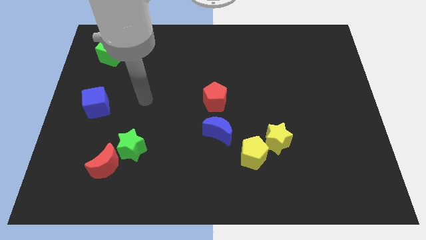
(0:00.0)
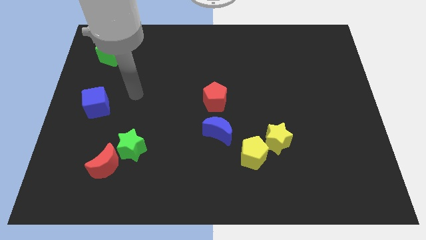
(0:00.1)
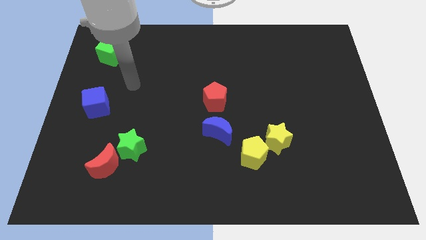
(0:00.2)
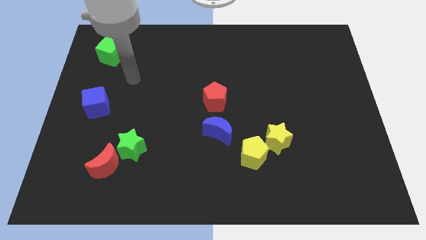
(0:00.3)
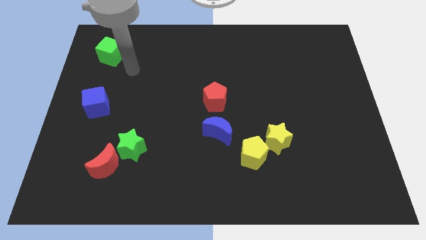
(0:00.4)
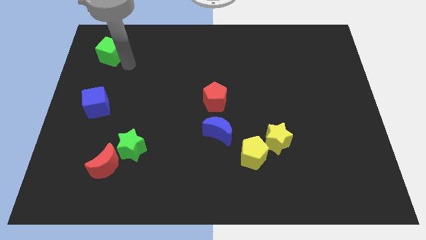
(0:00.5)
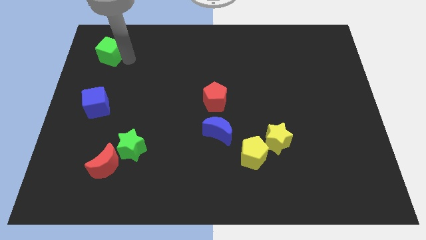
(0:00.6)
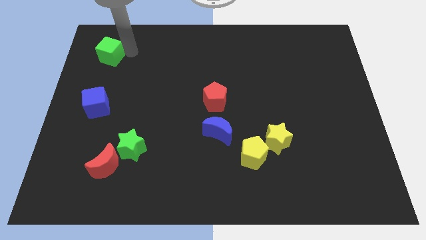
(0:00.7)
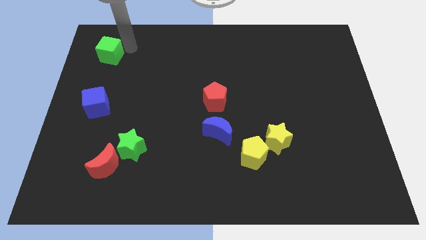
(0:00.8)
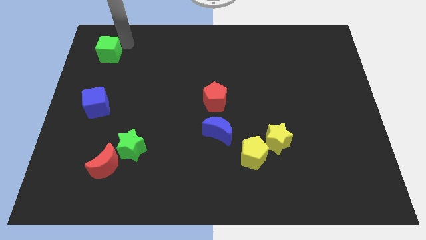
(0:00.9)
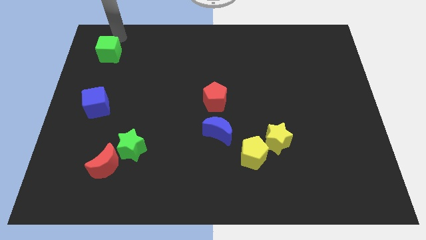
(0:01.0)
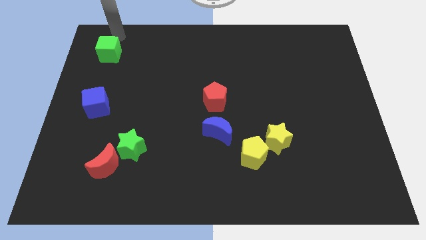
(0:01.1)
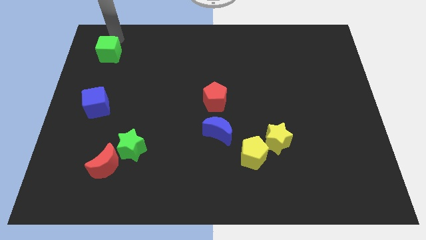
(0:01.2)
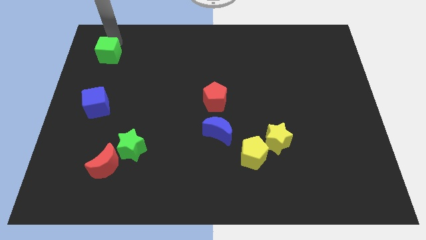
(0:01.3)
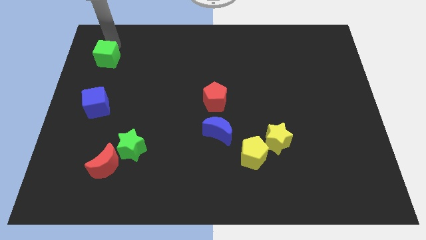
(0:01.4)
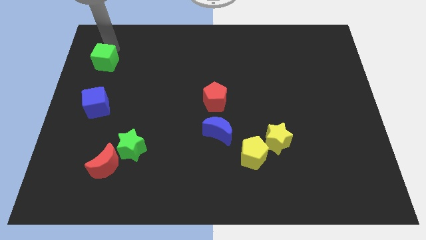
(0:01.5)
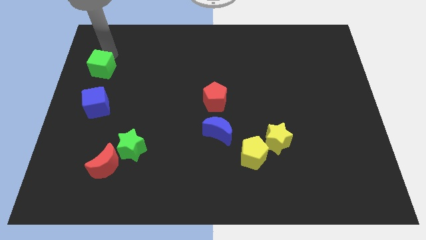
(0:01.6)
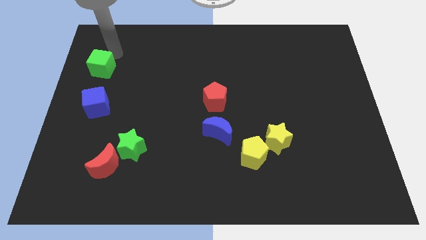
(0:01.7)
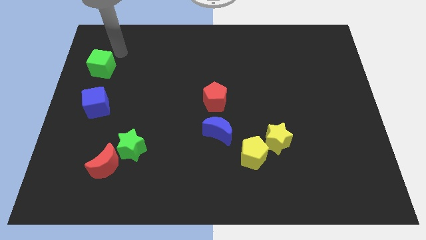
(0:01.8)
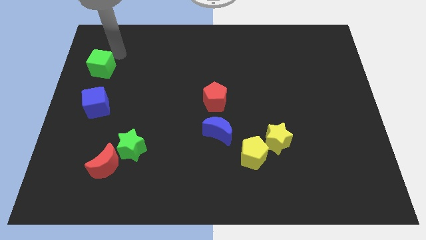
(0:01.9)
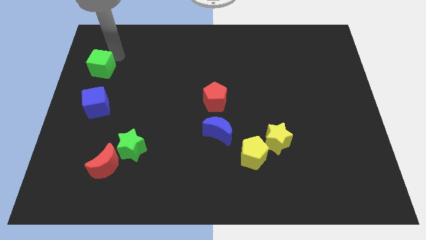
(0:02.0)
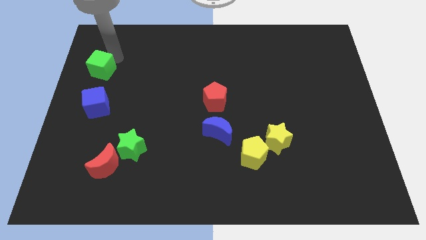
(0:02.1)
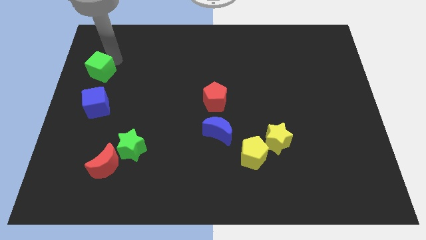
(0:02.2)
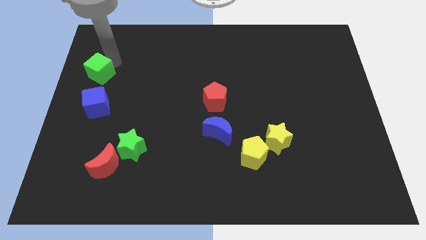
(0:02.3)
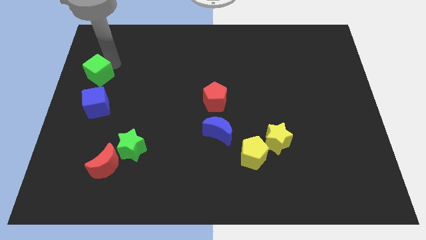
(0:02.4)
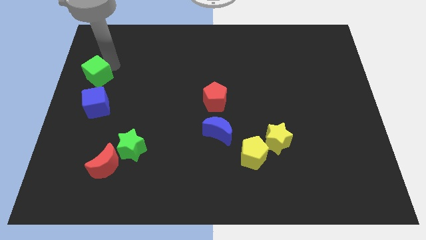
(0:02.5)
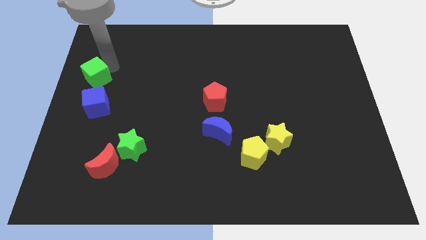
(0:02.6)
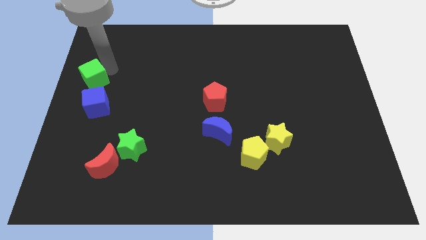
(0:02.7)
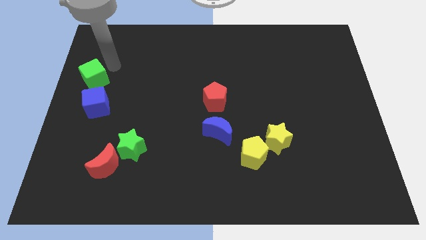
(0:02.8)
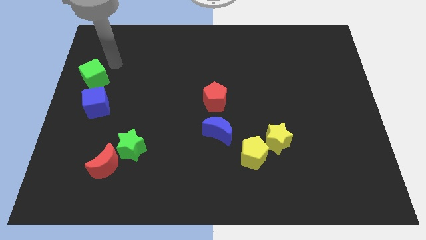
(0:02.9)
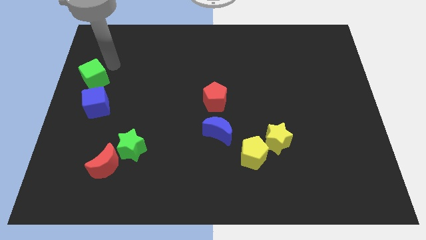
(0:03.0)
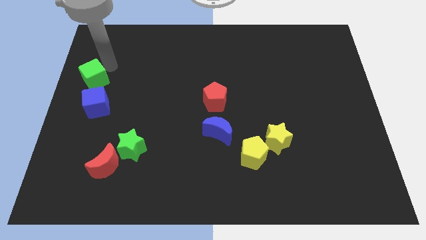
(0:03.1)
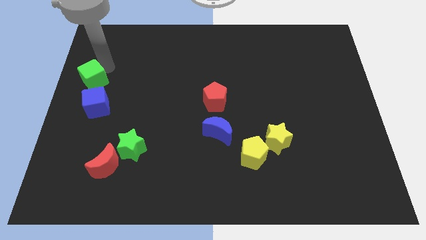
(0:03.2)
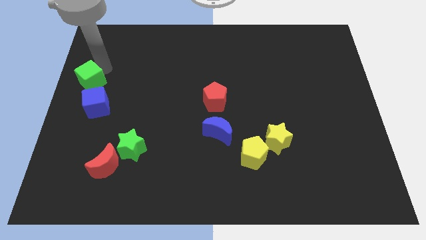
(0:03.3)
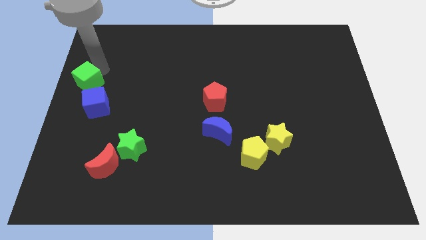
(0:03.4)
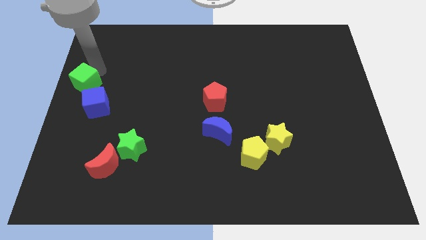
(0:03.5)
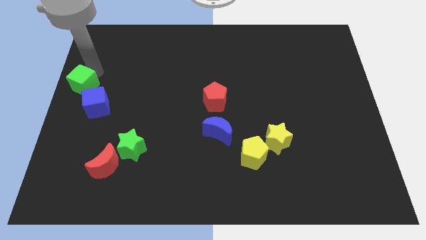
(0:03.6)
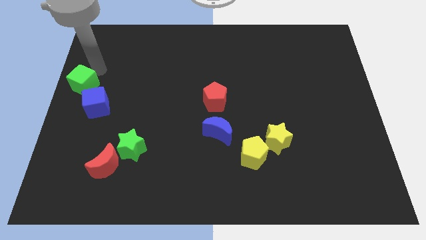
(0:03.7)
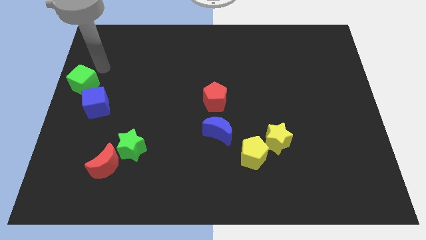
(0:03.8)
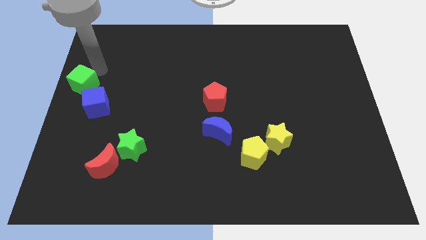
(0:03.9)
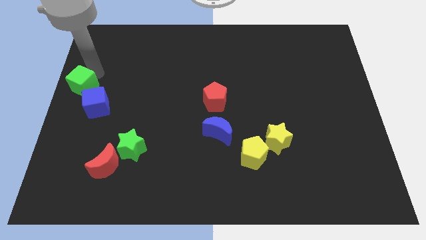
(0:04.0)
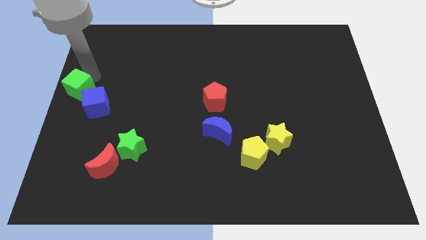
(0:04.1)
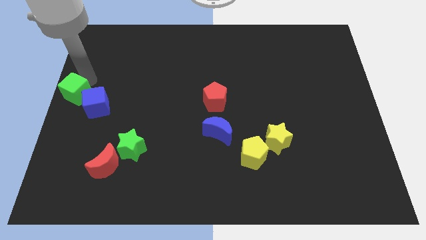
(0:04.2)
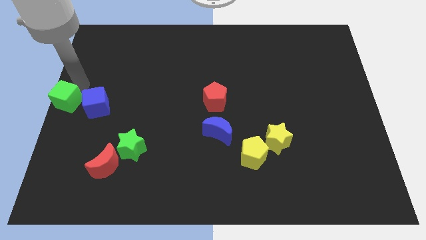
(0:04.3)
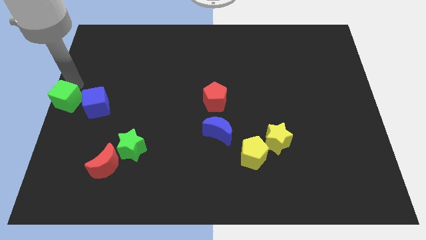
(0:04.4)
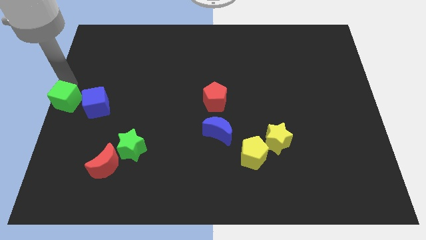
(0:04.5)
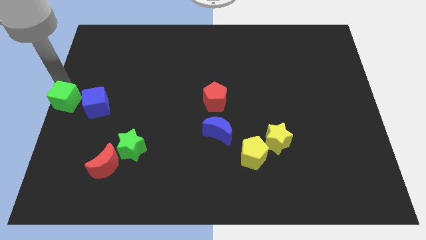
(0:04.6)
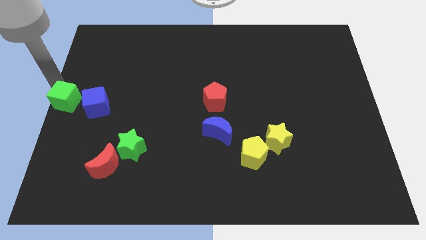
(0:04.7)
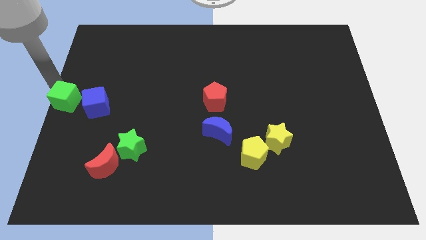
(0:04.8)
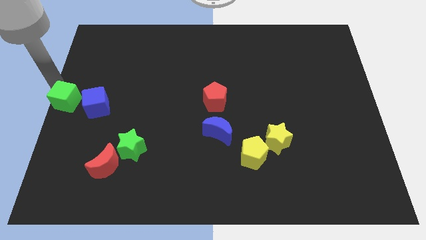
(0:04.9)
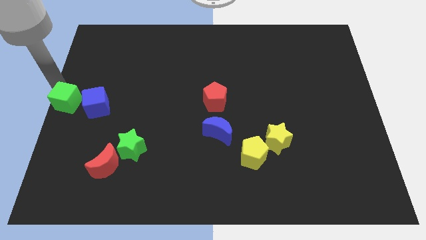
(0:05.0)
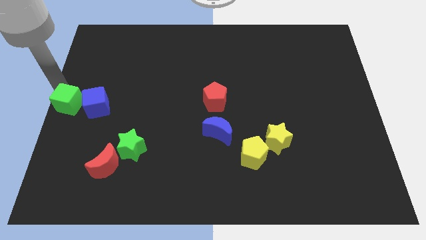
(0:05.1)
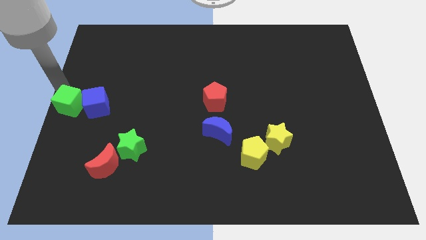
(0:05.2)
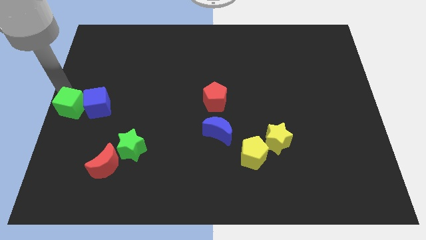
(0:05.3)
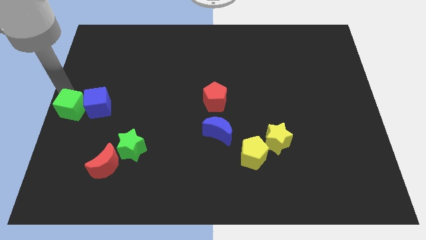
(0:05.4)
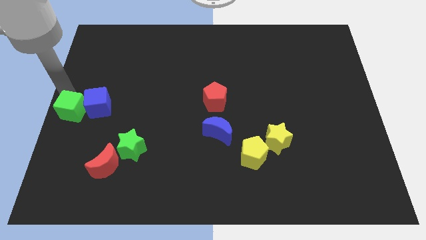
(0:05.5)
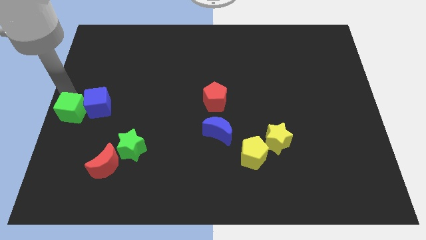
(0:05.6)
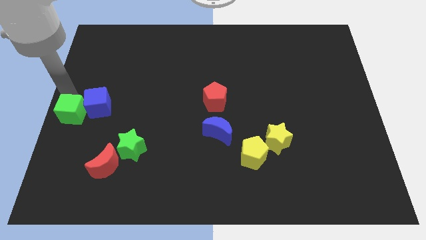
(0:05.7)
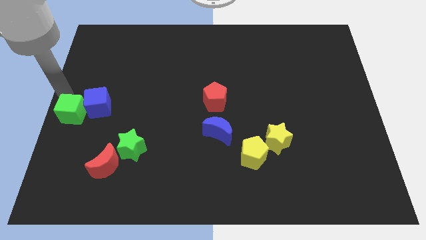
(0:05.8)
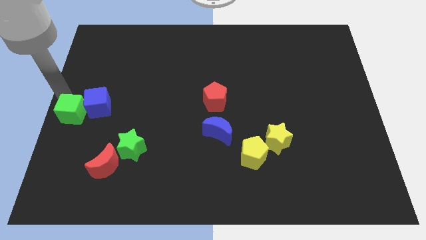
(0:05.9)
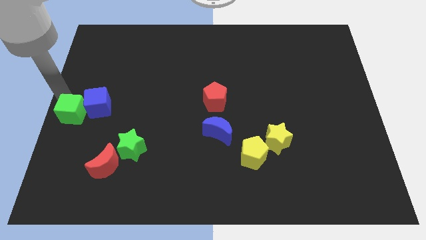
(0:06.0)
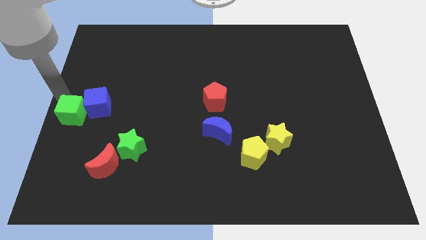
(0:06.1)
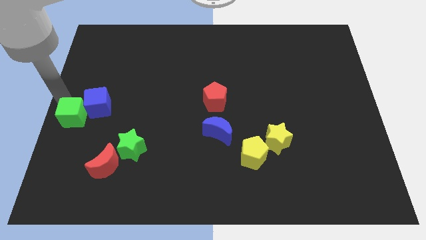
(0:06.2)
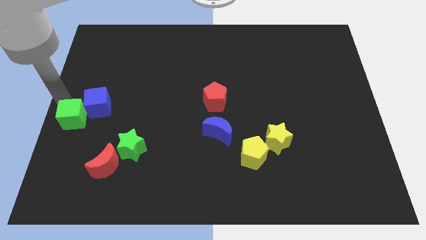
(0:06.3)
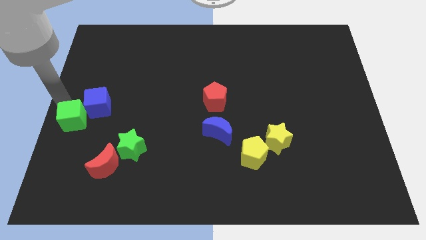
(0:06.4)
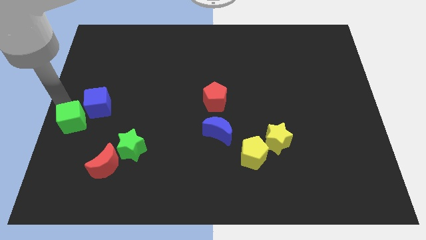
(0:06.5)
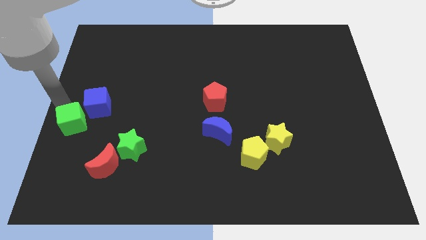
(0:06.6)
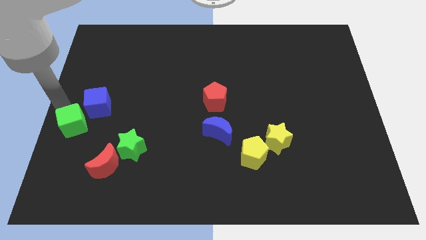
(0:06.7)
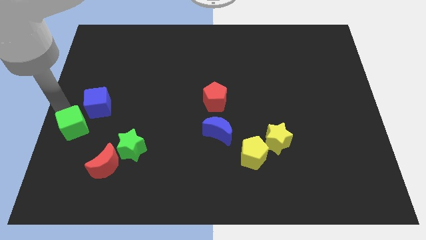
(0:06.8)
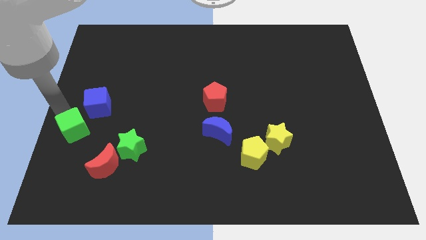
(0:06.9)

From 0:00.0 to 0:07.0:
put the green cube diagonally up and to the left of the red moon

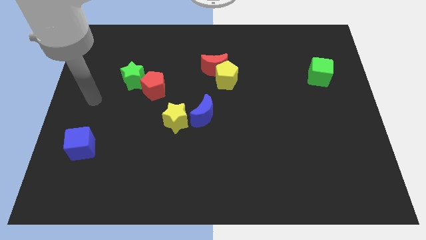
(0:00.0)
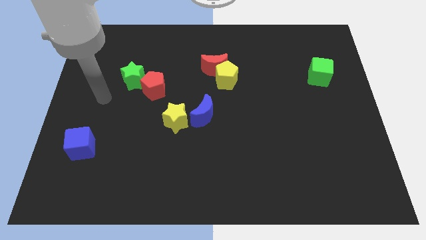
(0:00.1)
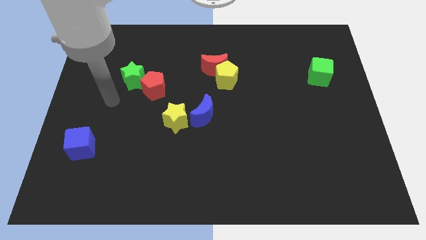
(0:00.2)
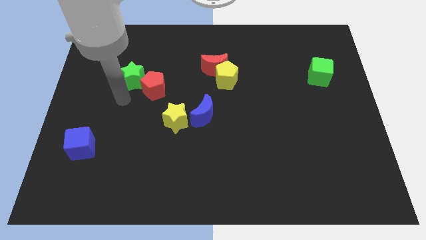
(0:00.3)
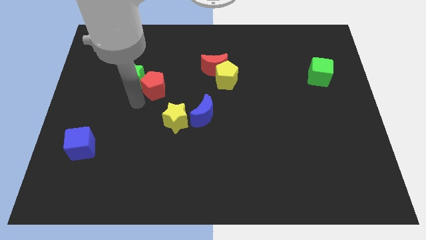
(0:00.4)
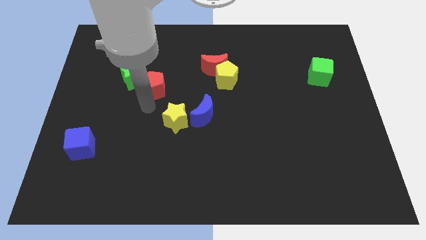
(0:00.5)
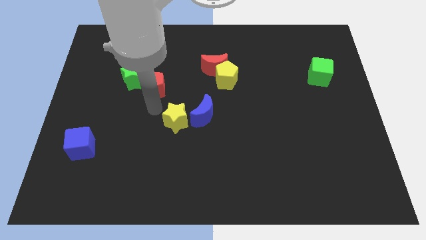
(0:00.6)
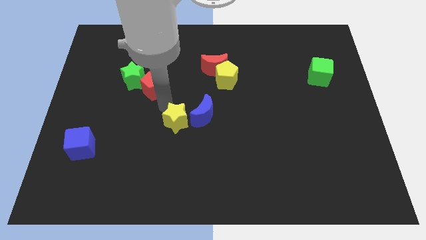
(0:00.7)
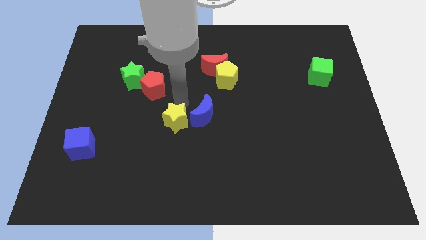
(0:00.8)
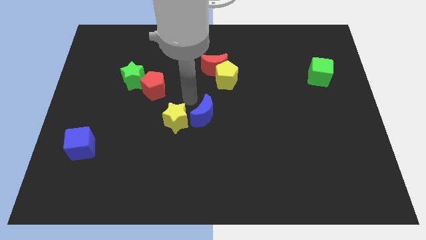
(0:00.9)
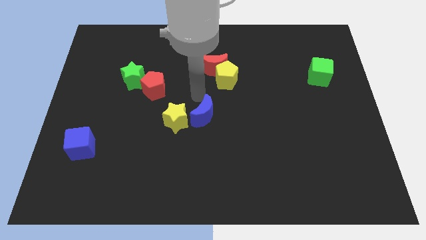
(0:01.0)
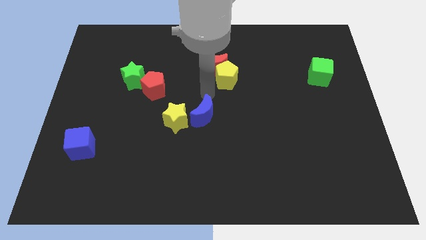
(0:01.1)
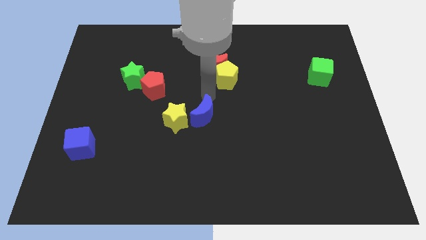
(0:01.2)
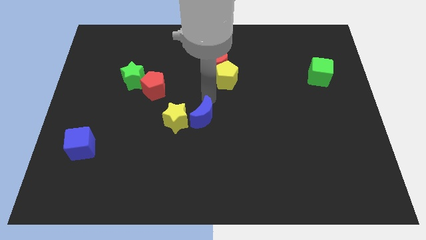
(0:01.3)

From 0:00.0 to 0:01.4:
move the blue moon to the bottom right of the yellow star

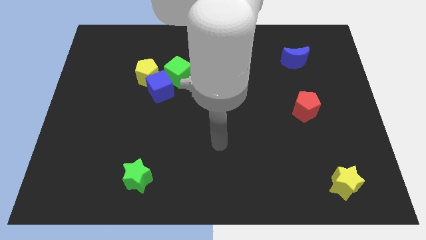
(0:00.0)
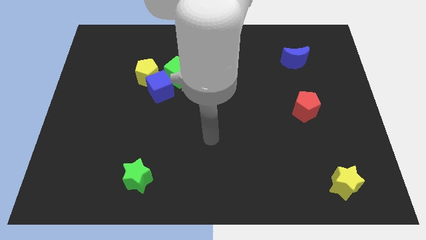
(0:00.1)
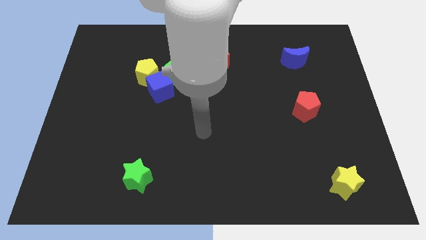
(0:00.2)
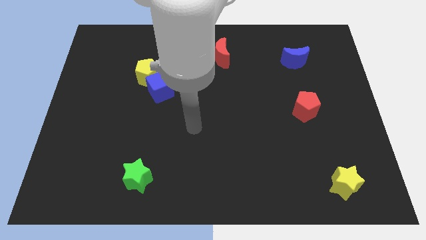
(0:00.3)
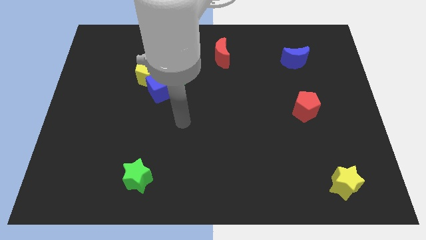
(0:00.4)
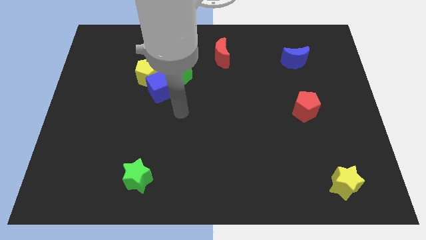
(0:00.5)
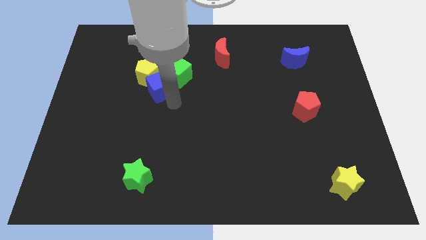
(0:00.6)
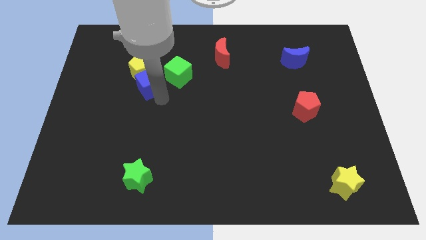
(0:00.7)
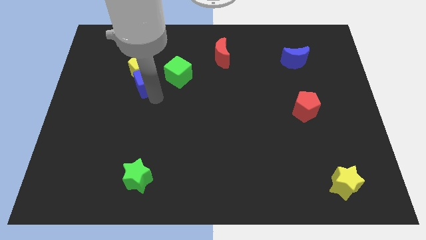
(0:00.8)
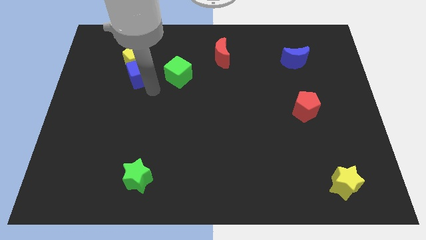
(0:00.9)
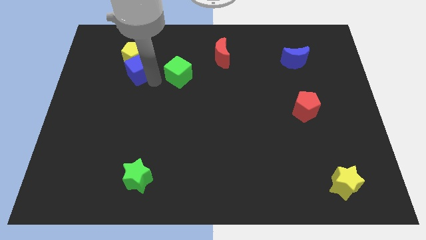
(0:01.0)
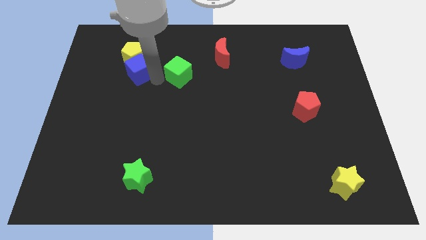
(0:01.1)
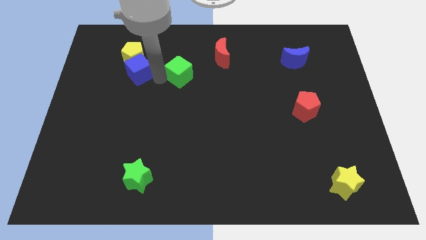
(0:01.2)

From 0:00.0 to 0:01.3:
put the green cube diagonally down and to the left of the red moon
